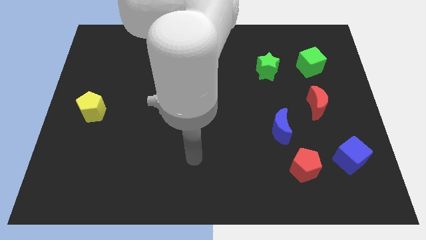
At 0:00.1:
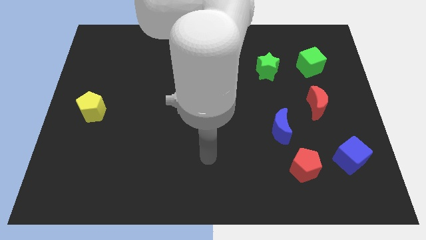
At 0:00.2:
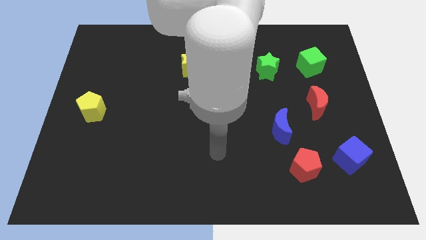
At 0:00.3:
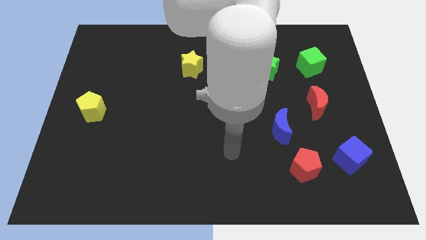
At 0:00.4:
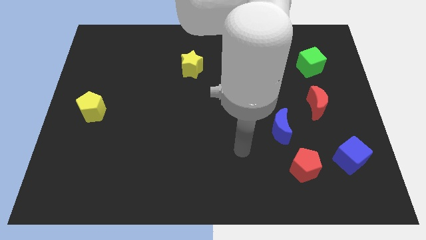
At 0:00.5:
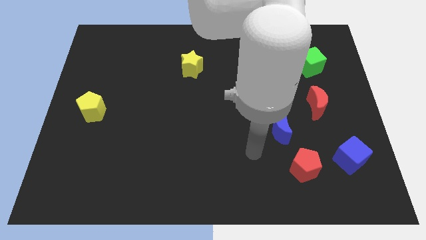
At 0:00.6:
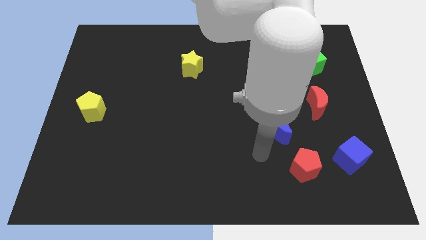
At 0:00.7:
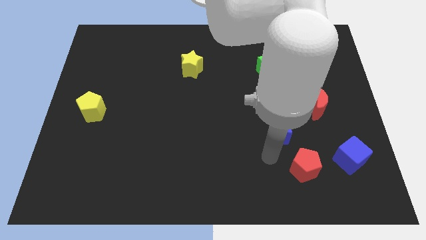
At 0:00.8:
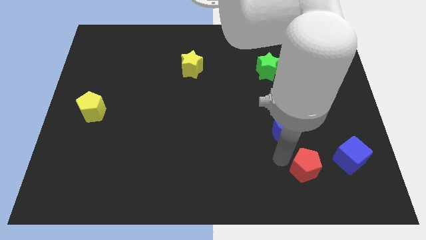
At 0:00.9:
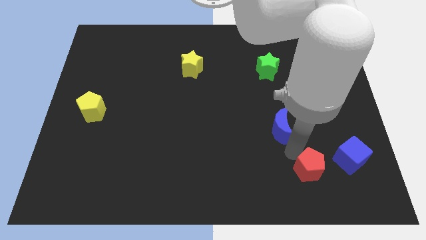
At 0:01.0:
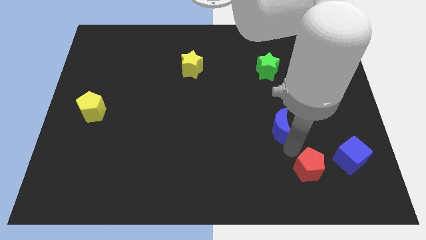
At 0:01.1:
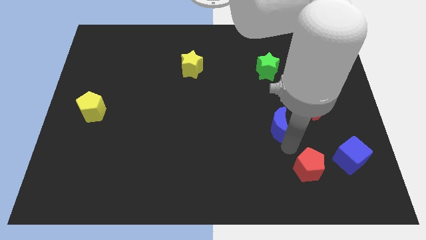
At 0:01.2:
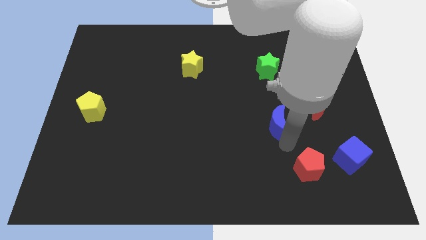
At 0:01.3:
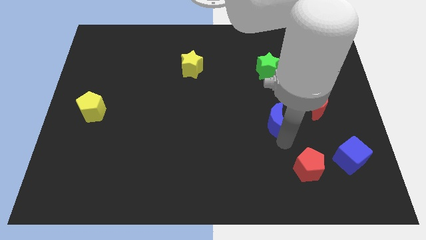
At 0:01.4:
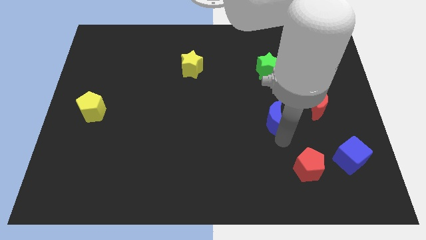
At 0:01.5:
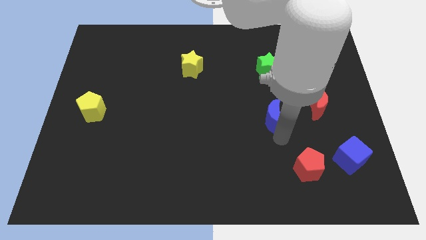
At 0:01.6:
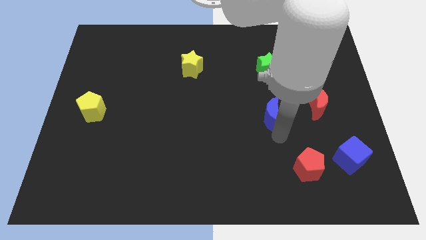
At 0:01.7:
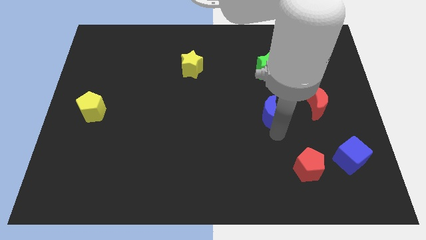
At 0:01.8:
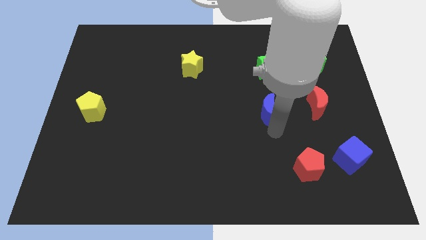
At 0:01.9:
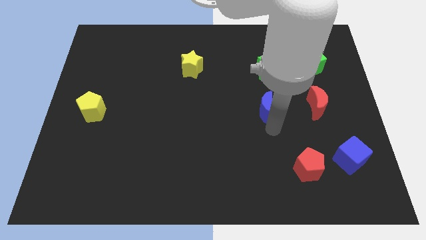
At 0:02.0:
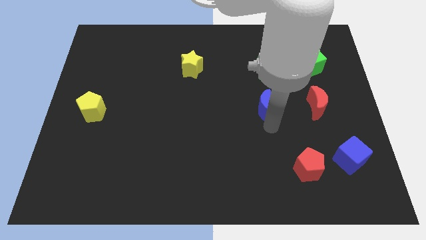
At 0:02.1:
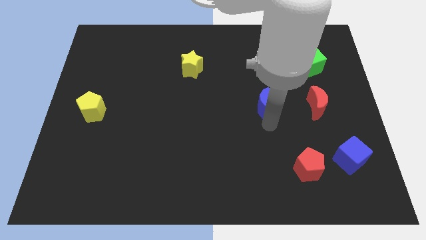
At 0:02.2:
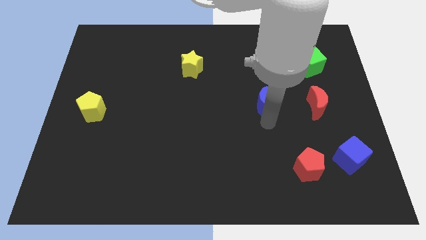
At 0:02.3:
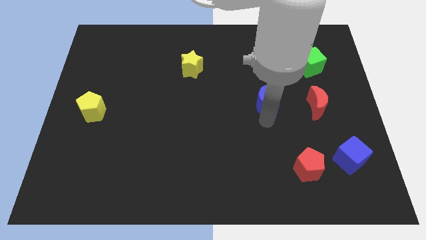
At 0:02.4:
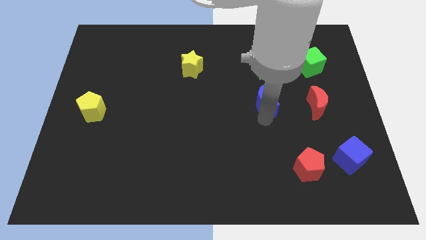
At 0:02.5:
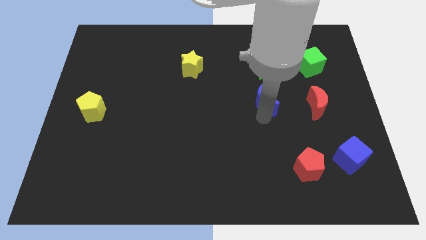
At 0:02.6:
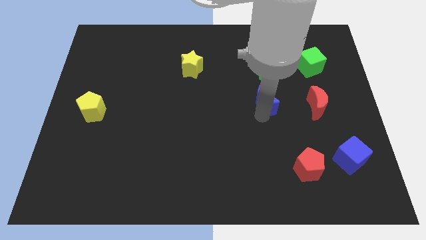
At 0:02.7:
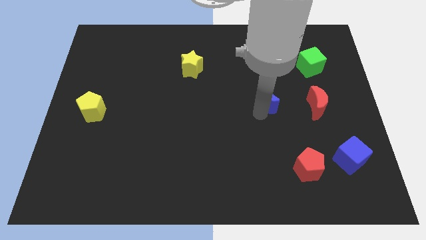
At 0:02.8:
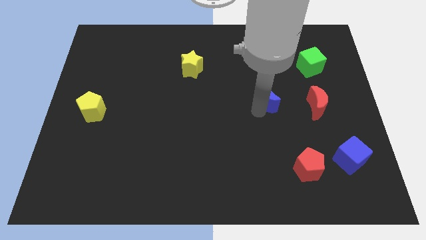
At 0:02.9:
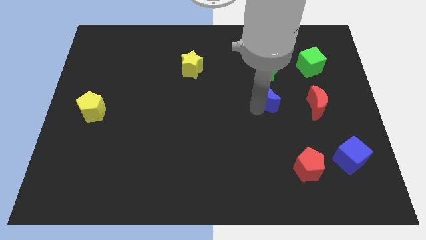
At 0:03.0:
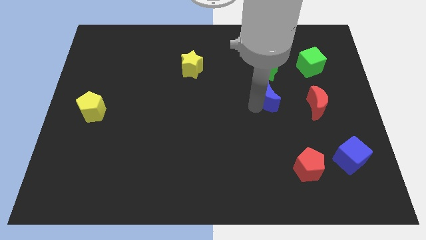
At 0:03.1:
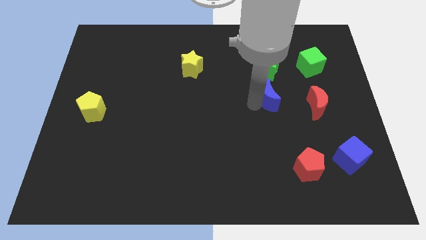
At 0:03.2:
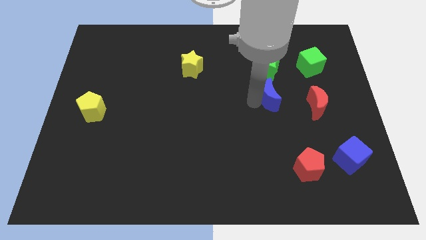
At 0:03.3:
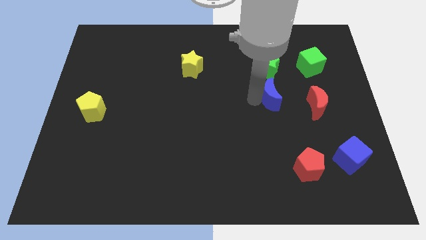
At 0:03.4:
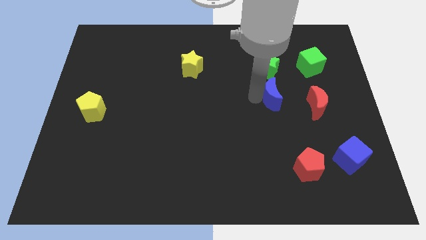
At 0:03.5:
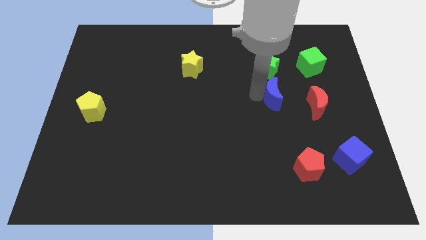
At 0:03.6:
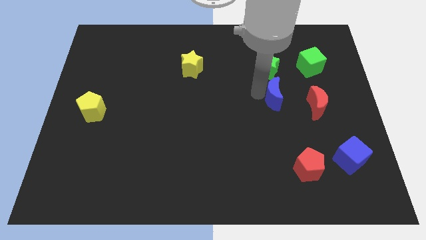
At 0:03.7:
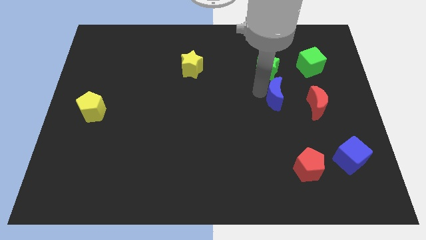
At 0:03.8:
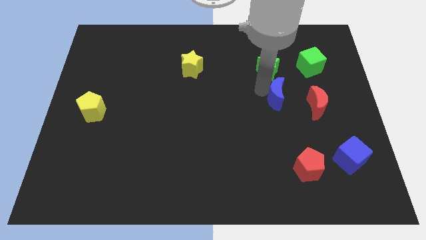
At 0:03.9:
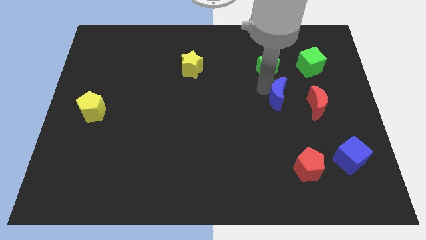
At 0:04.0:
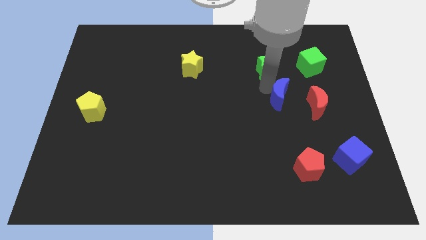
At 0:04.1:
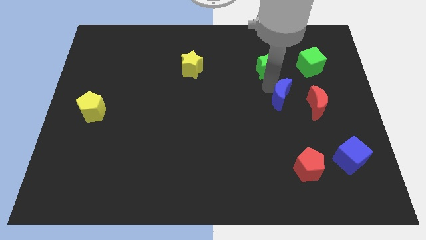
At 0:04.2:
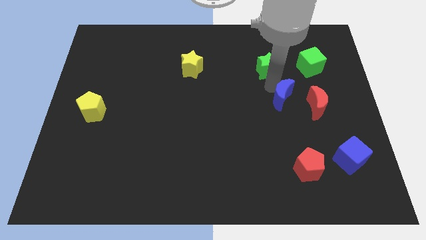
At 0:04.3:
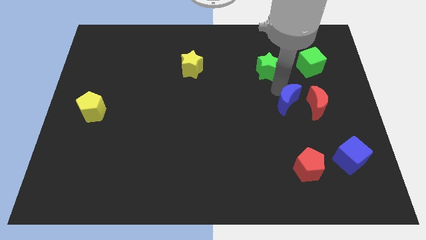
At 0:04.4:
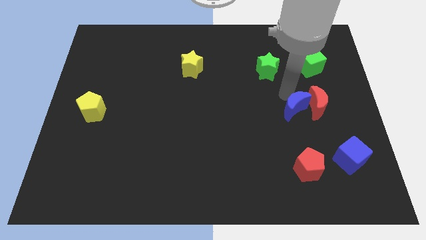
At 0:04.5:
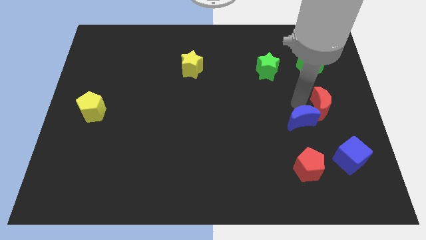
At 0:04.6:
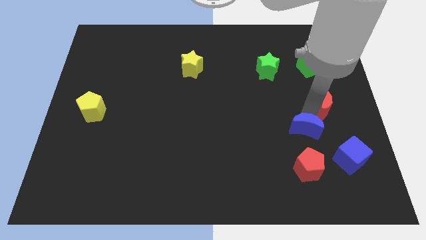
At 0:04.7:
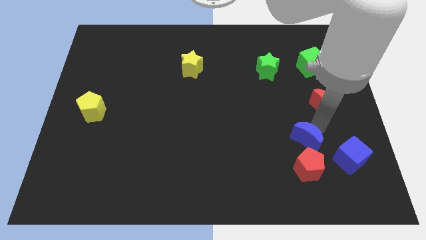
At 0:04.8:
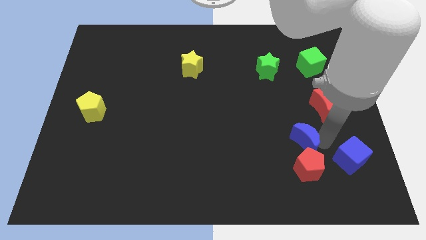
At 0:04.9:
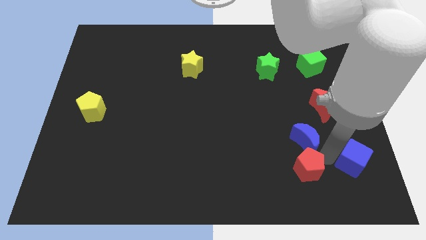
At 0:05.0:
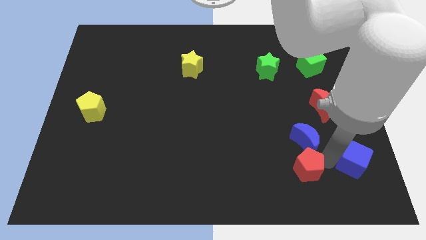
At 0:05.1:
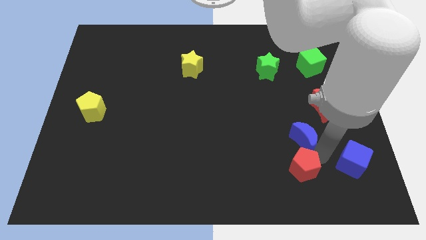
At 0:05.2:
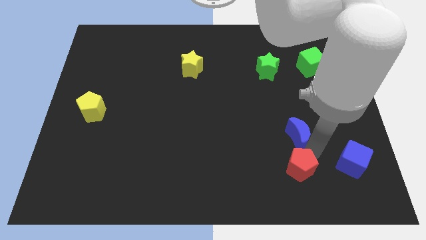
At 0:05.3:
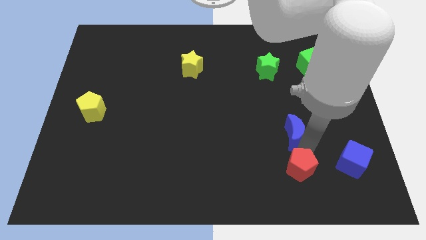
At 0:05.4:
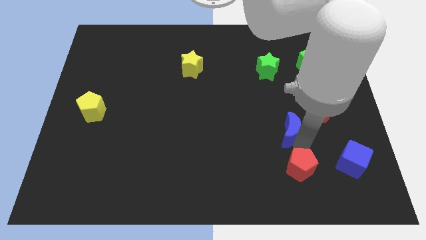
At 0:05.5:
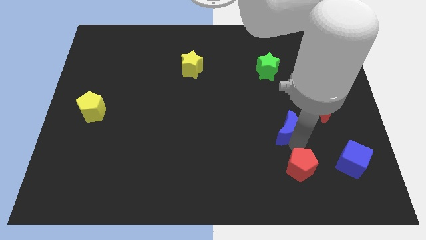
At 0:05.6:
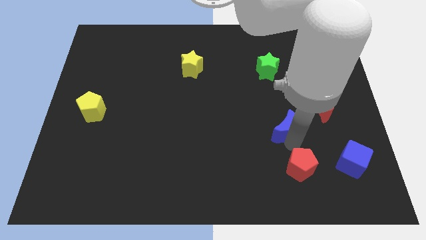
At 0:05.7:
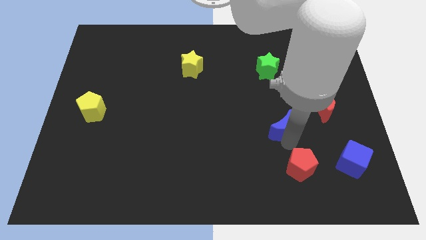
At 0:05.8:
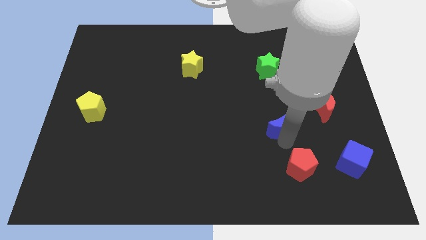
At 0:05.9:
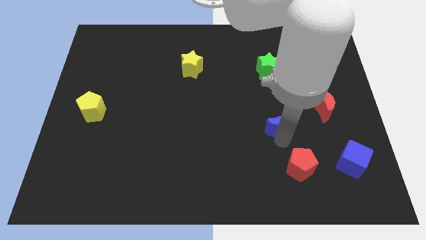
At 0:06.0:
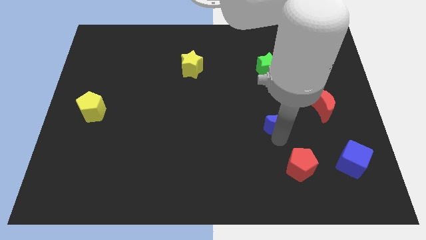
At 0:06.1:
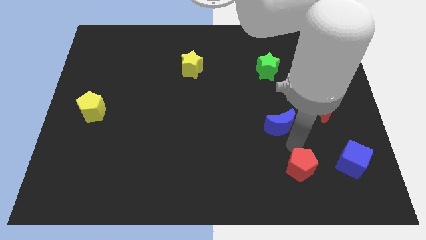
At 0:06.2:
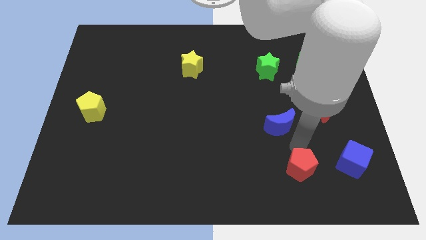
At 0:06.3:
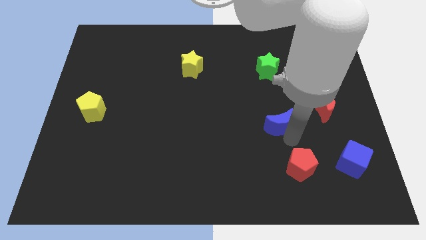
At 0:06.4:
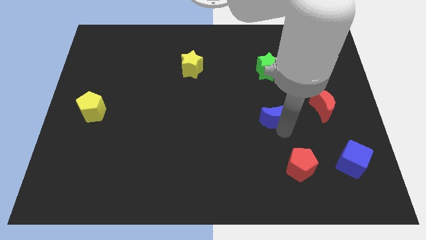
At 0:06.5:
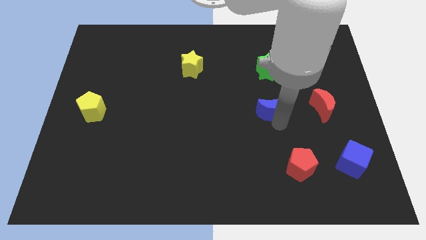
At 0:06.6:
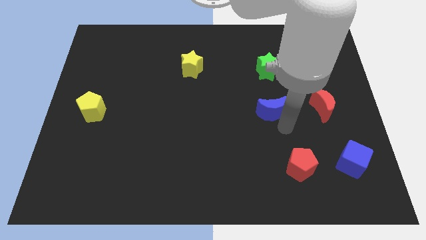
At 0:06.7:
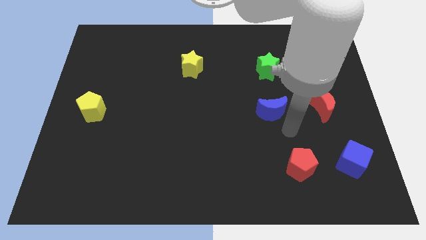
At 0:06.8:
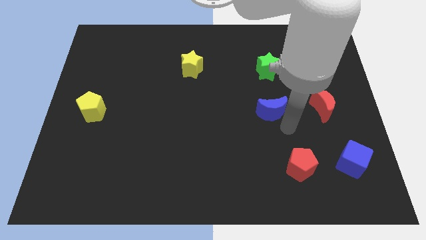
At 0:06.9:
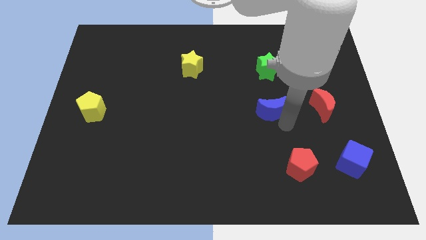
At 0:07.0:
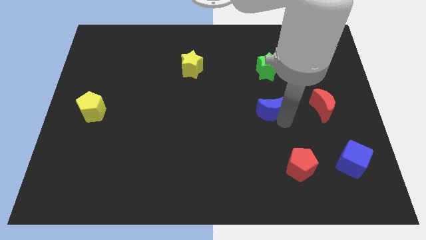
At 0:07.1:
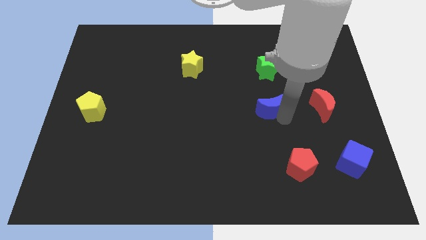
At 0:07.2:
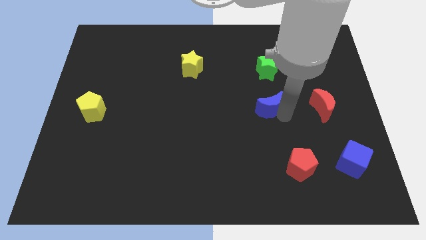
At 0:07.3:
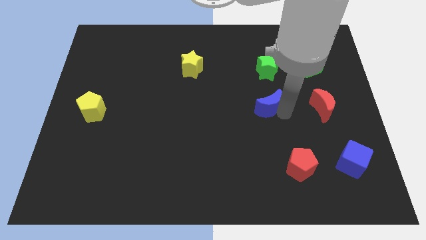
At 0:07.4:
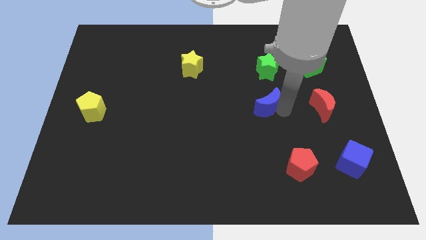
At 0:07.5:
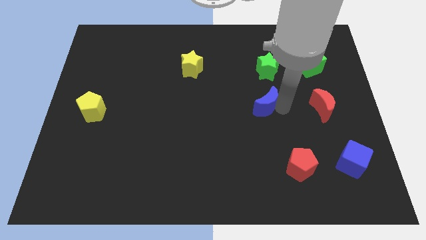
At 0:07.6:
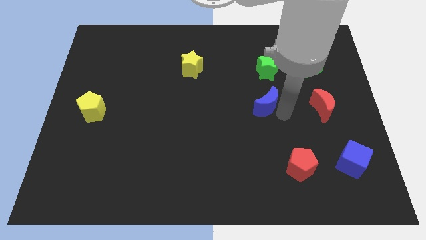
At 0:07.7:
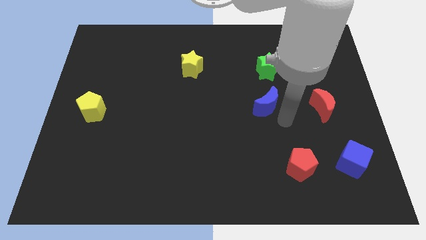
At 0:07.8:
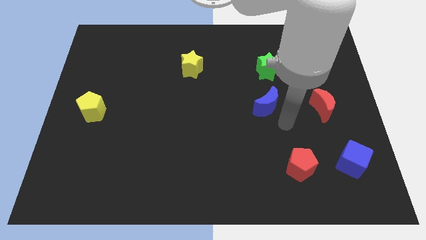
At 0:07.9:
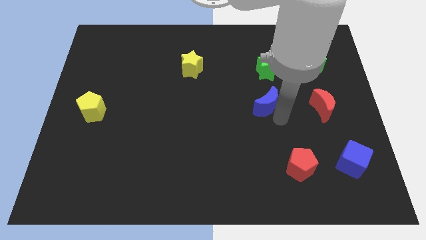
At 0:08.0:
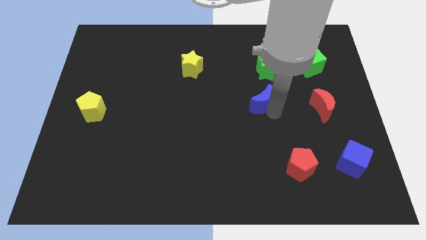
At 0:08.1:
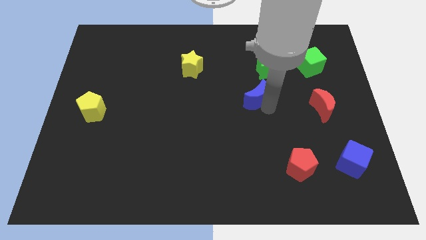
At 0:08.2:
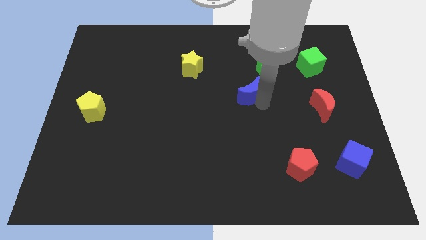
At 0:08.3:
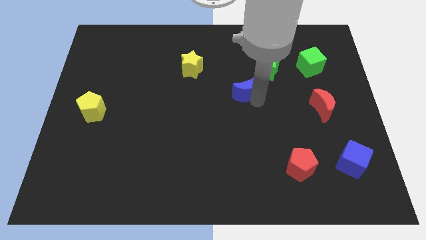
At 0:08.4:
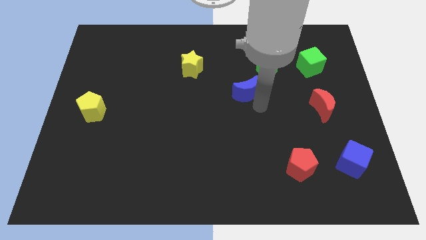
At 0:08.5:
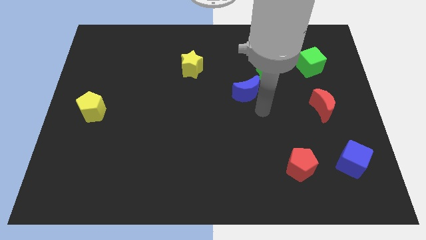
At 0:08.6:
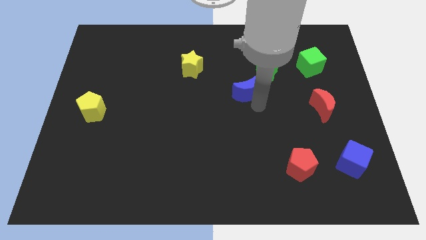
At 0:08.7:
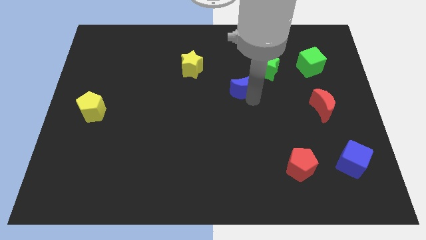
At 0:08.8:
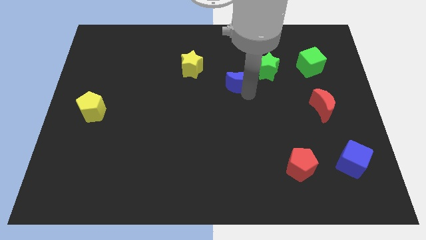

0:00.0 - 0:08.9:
move the blue moon to the left side of the green star
